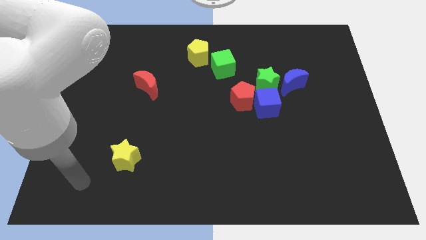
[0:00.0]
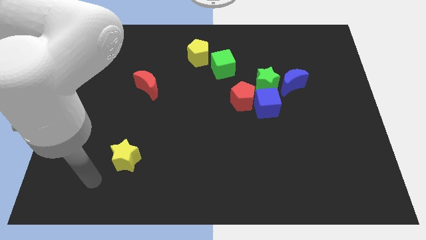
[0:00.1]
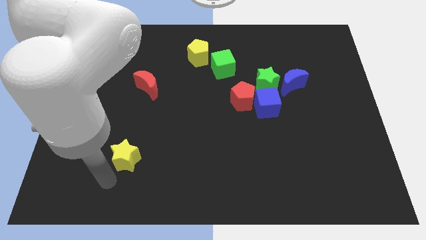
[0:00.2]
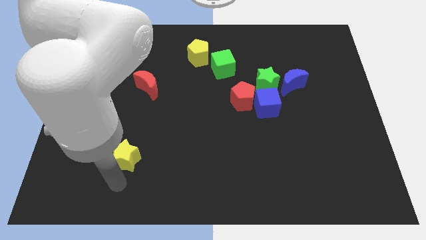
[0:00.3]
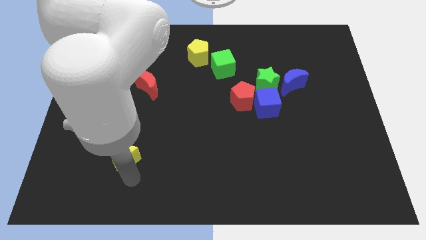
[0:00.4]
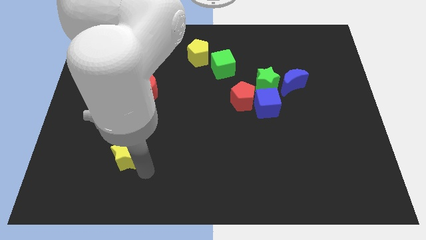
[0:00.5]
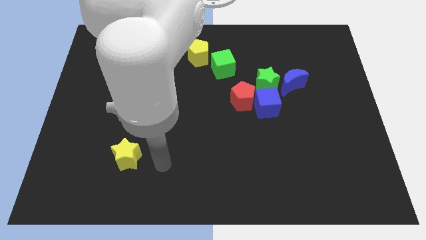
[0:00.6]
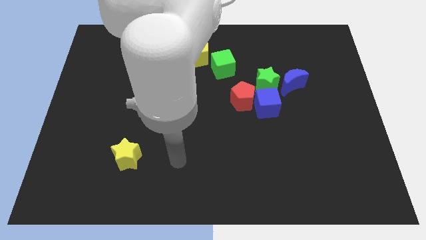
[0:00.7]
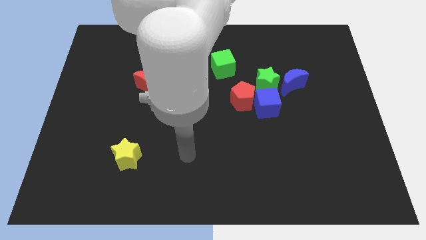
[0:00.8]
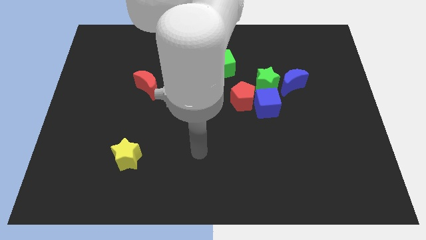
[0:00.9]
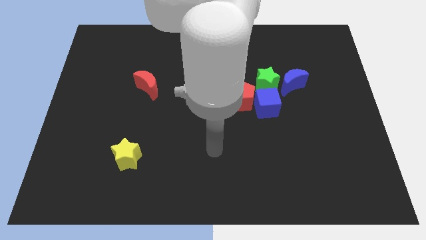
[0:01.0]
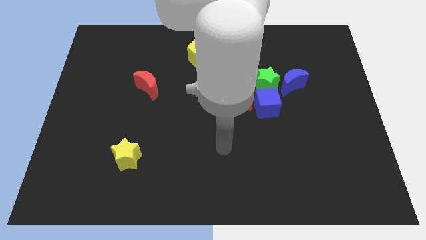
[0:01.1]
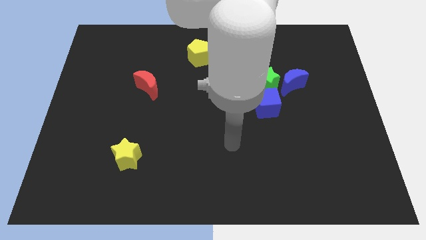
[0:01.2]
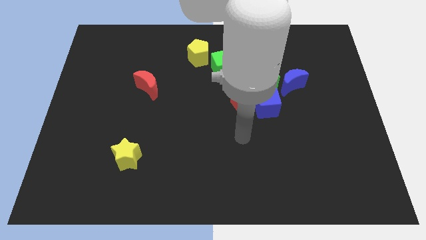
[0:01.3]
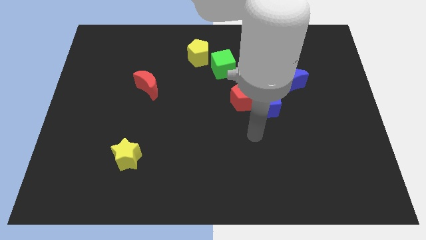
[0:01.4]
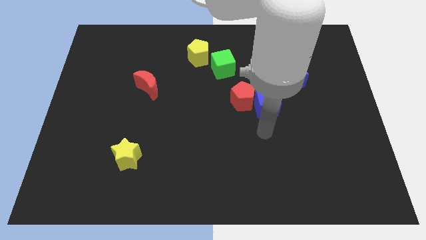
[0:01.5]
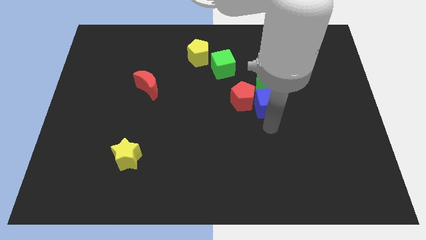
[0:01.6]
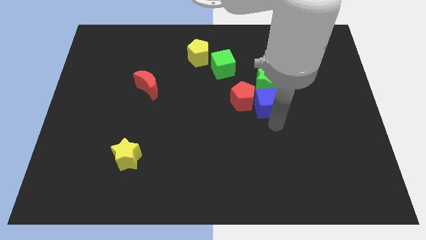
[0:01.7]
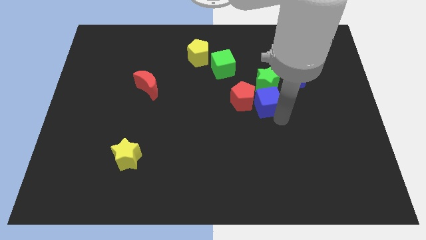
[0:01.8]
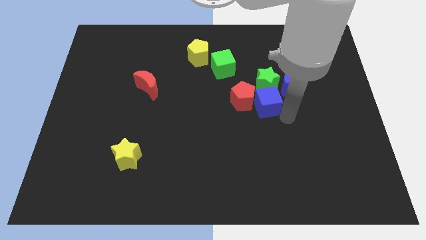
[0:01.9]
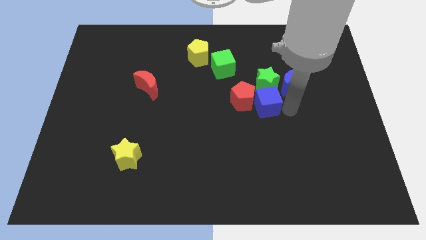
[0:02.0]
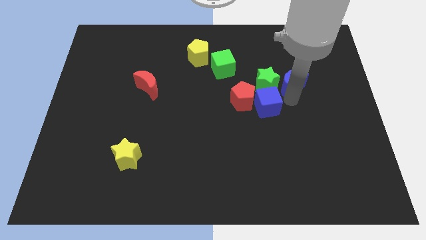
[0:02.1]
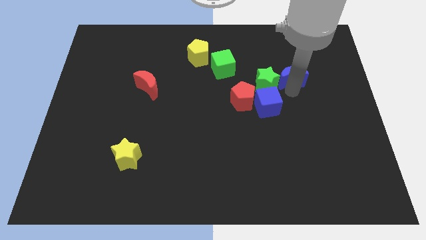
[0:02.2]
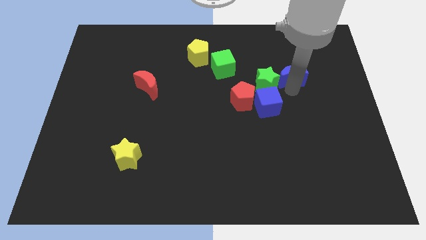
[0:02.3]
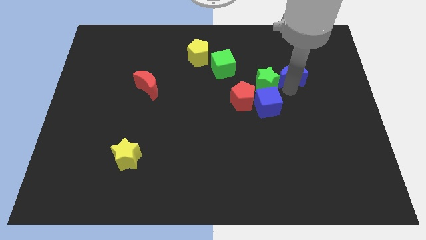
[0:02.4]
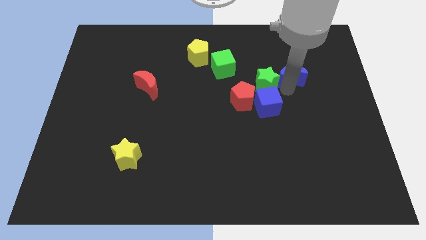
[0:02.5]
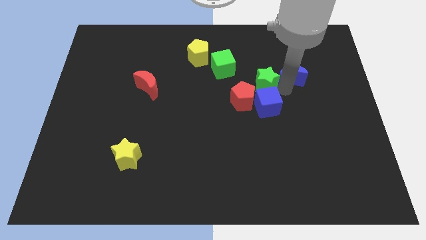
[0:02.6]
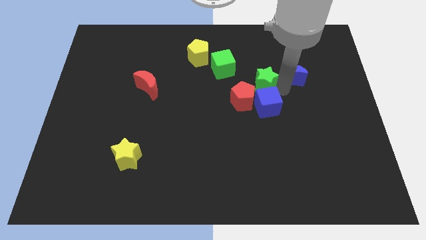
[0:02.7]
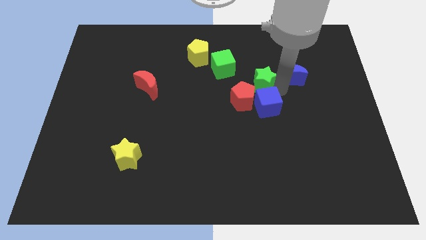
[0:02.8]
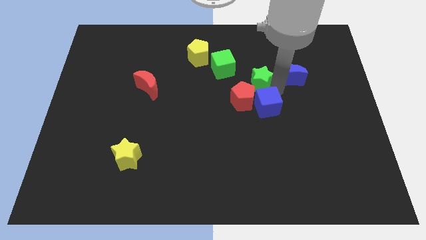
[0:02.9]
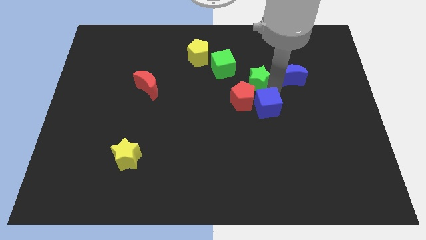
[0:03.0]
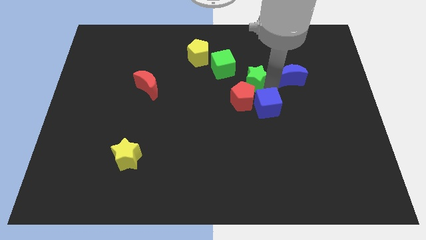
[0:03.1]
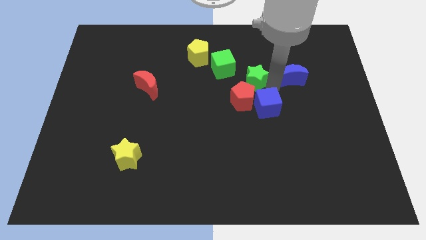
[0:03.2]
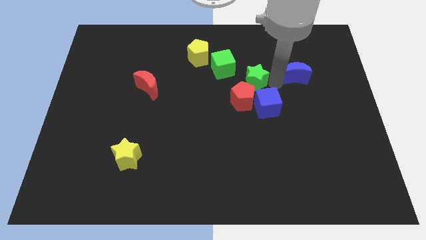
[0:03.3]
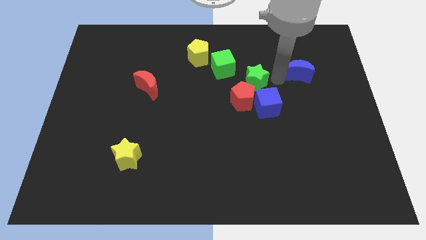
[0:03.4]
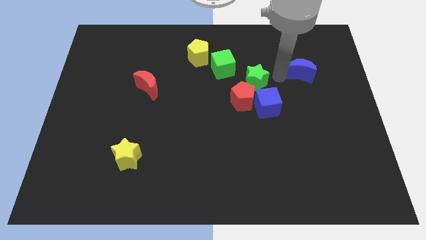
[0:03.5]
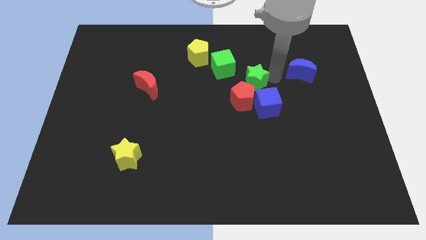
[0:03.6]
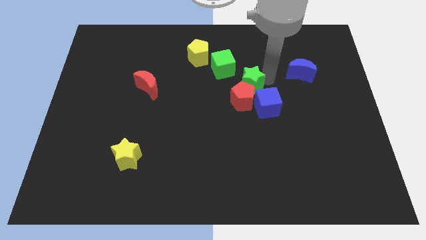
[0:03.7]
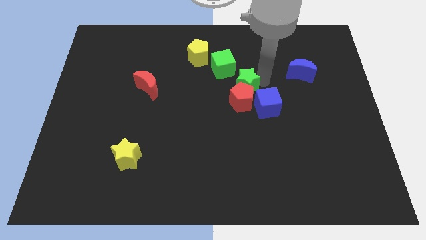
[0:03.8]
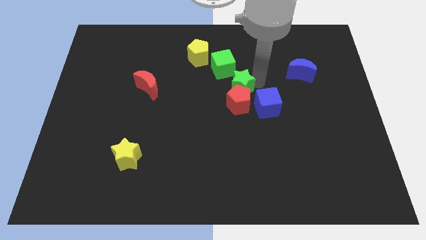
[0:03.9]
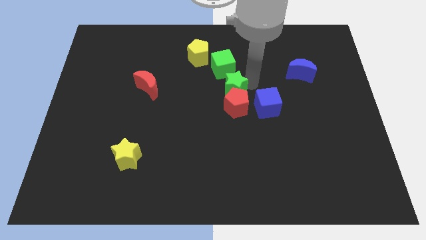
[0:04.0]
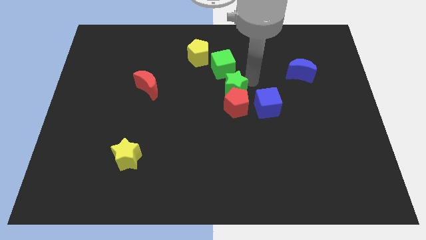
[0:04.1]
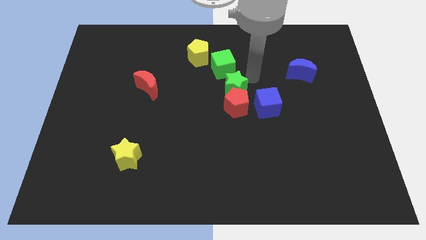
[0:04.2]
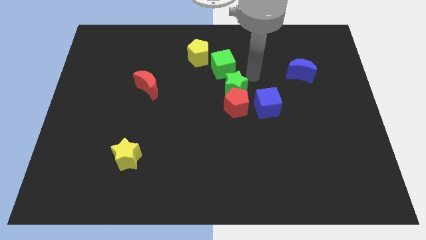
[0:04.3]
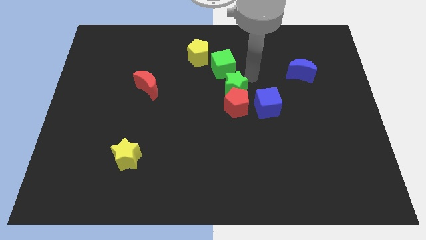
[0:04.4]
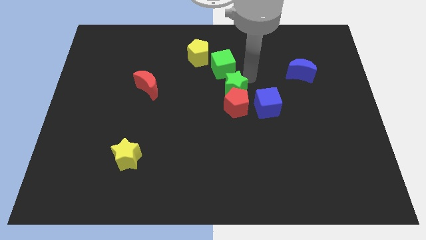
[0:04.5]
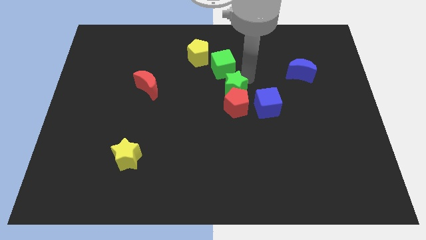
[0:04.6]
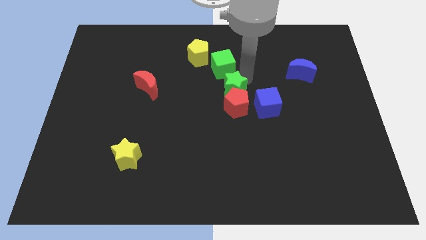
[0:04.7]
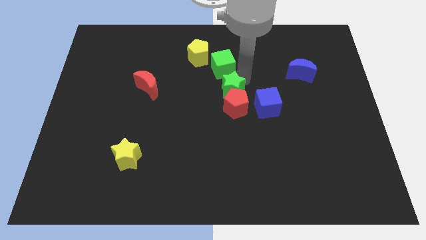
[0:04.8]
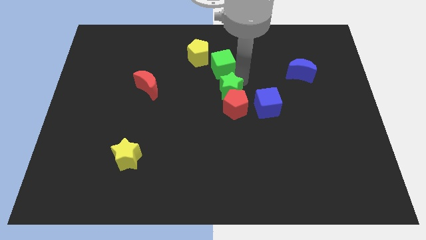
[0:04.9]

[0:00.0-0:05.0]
slide the green star a little down and left

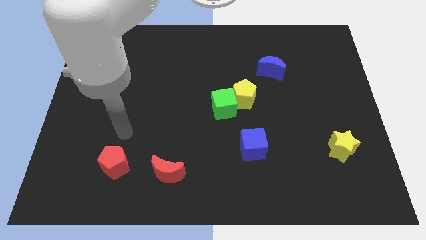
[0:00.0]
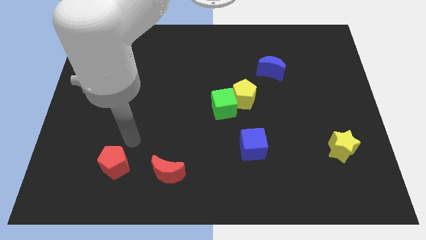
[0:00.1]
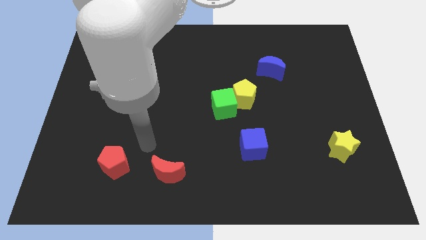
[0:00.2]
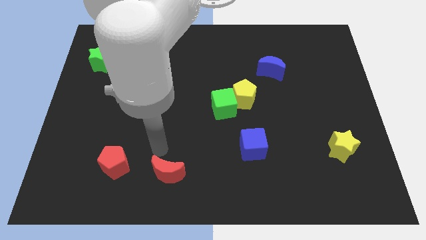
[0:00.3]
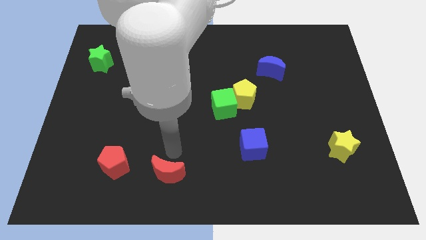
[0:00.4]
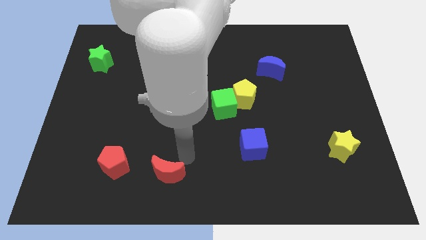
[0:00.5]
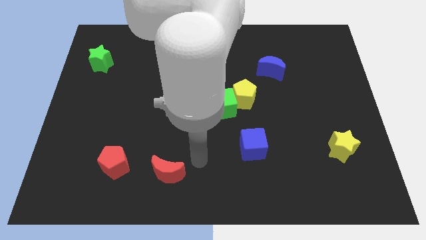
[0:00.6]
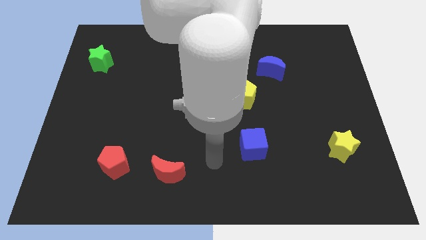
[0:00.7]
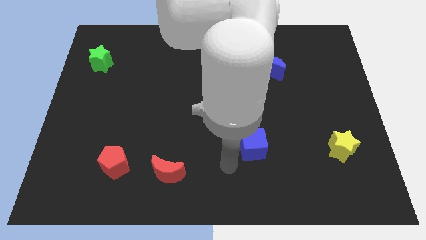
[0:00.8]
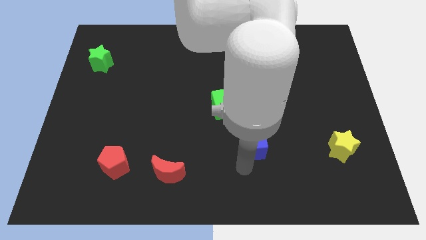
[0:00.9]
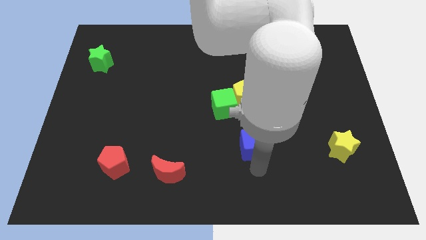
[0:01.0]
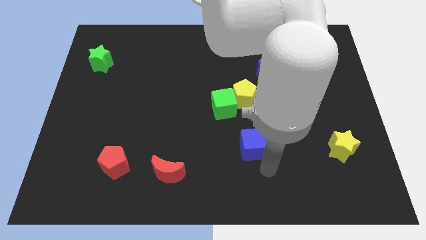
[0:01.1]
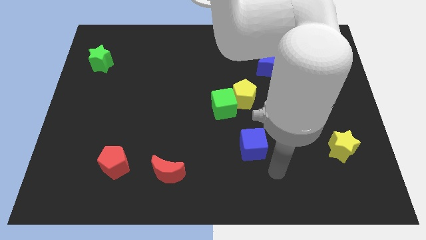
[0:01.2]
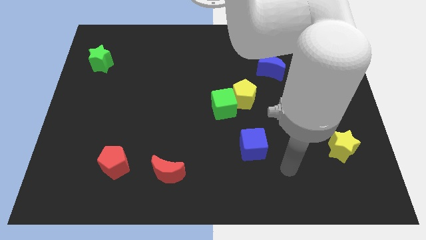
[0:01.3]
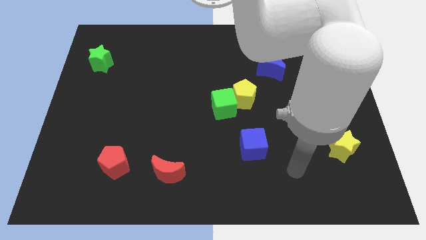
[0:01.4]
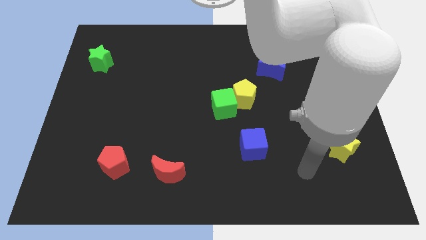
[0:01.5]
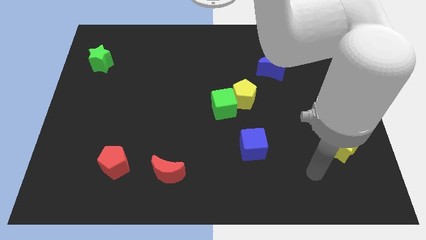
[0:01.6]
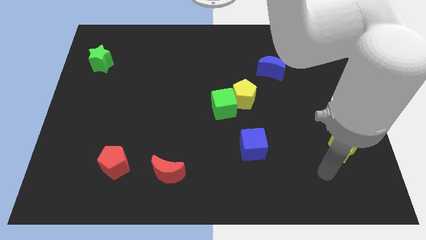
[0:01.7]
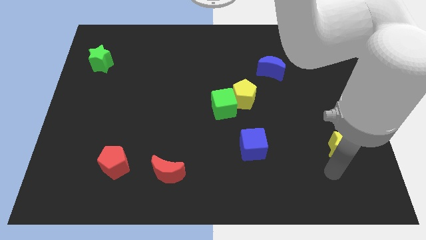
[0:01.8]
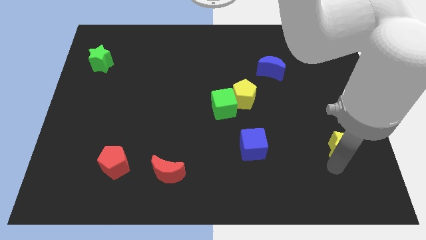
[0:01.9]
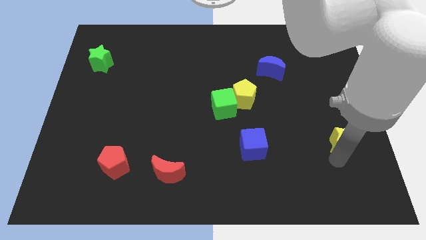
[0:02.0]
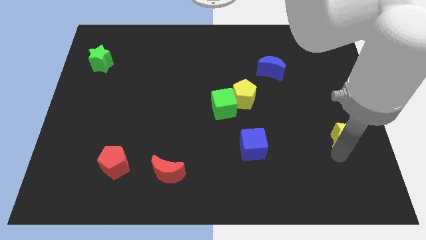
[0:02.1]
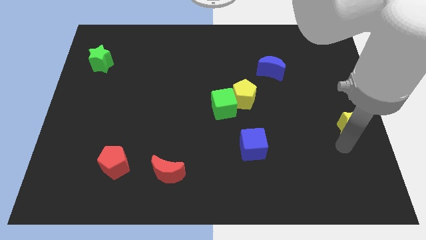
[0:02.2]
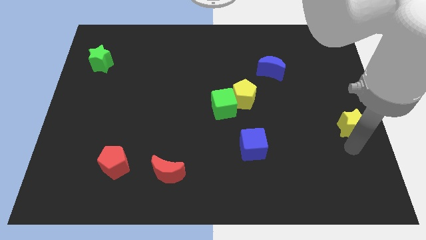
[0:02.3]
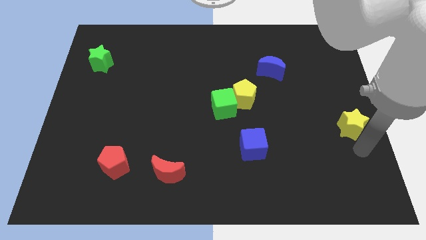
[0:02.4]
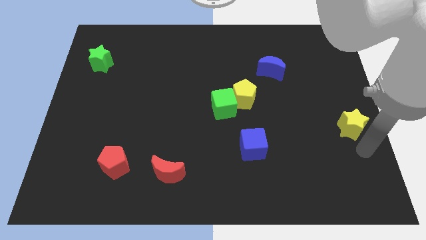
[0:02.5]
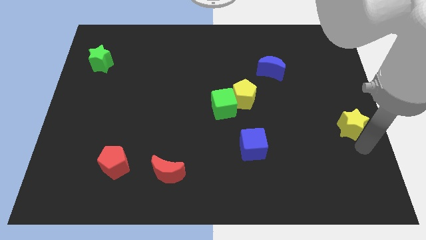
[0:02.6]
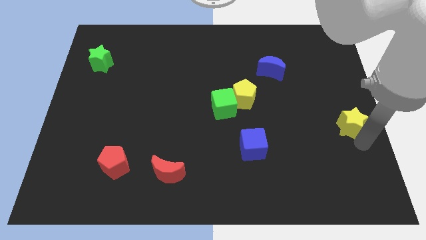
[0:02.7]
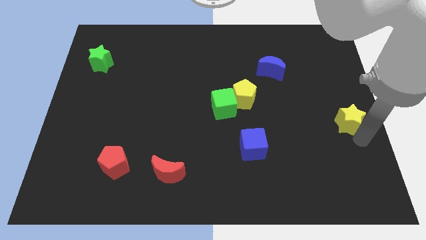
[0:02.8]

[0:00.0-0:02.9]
move the yellow star a little bit up
